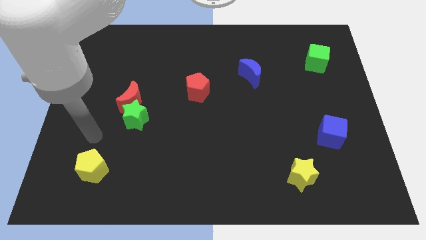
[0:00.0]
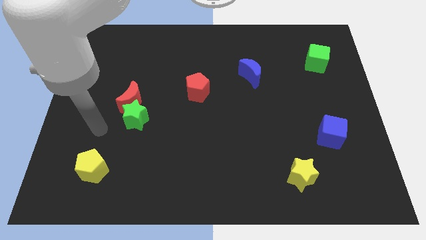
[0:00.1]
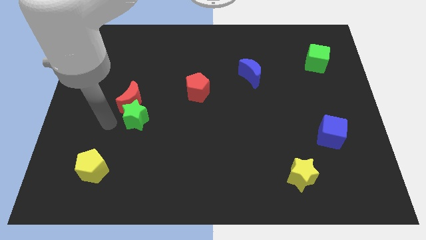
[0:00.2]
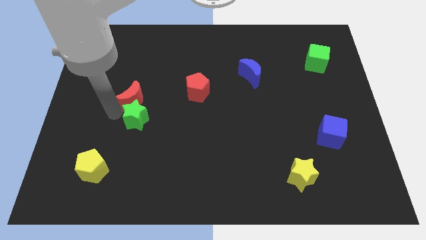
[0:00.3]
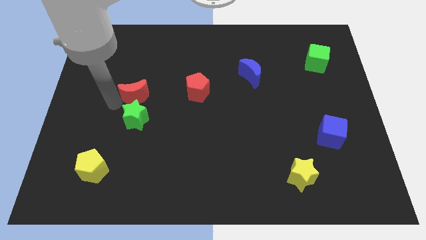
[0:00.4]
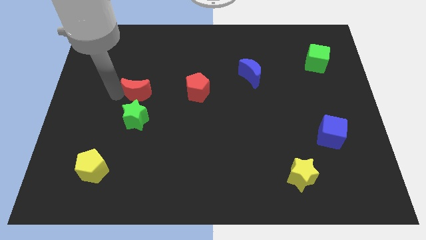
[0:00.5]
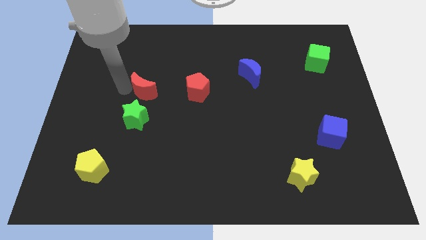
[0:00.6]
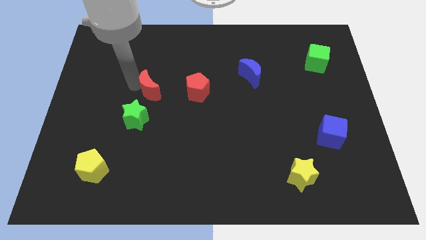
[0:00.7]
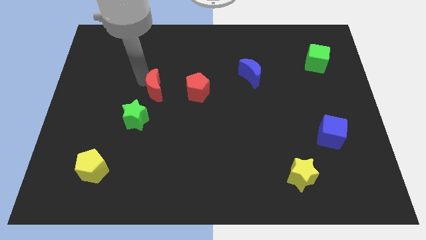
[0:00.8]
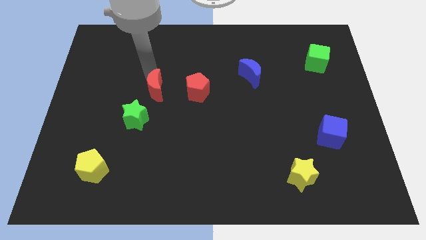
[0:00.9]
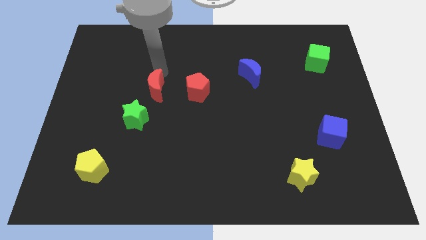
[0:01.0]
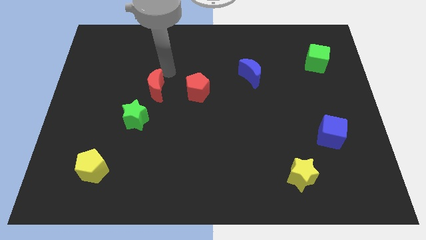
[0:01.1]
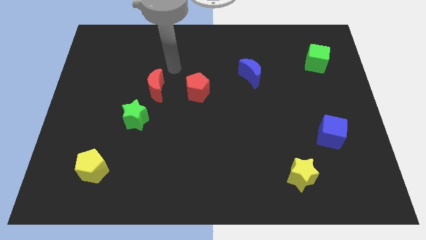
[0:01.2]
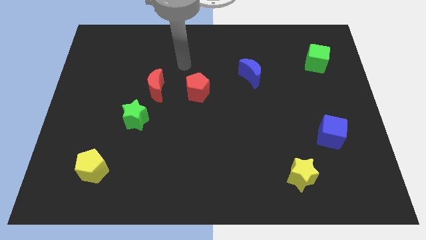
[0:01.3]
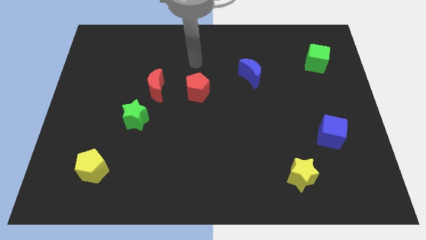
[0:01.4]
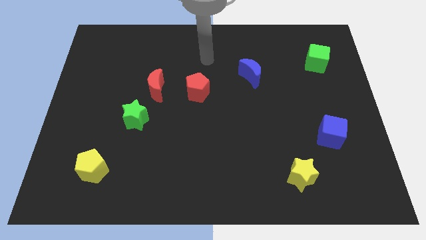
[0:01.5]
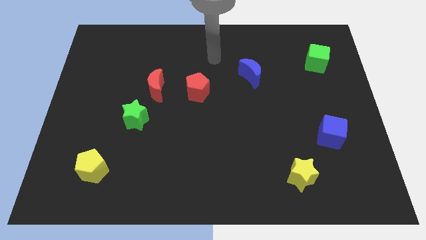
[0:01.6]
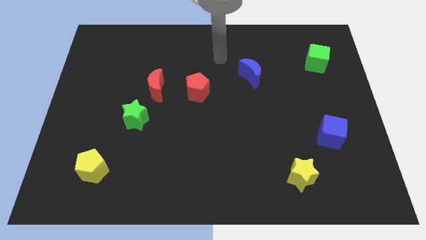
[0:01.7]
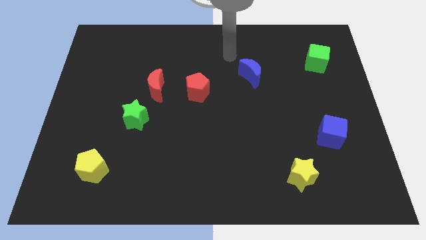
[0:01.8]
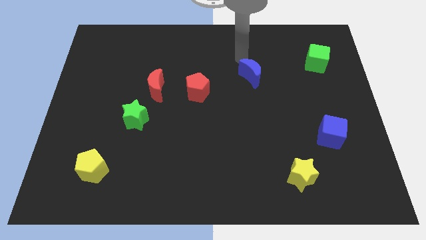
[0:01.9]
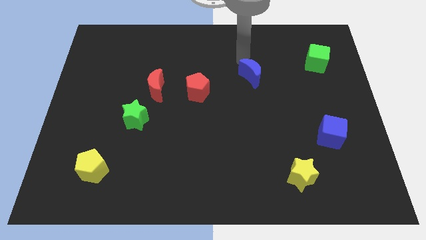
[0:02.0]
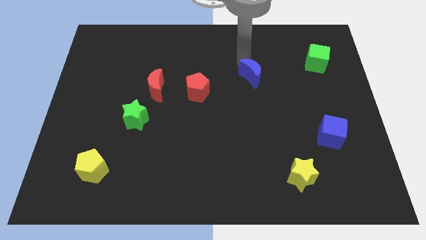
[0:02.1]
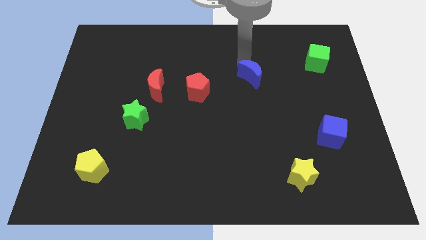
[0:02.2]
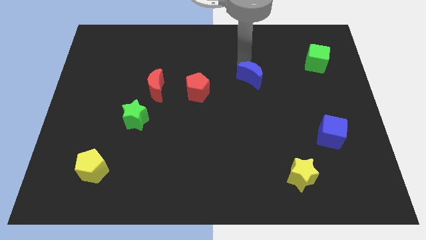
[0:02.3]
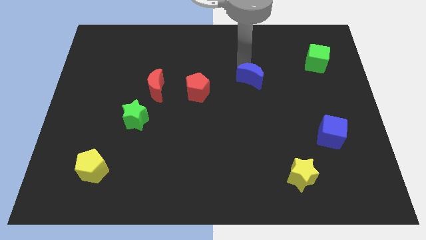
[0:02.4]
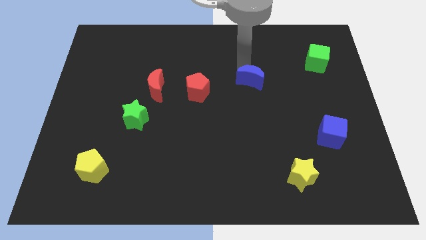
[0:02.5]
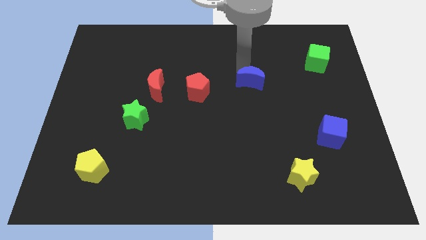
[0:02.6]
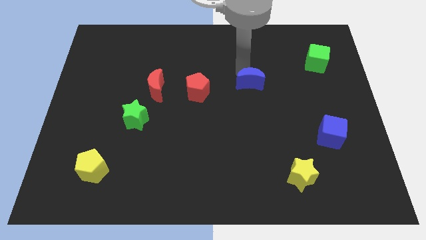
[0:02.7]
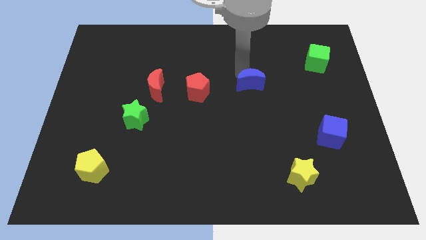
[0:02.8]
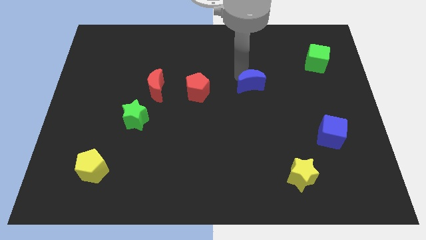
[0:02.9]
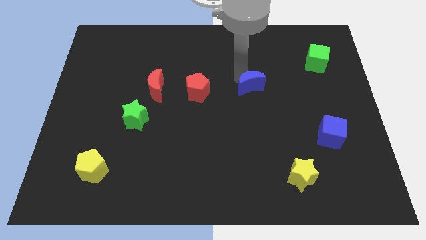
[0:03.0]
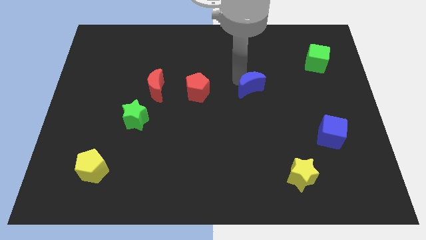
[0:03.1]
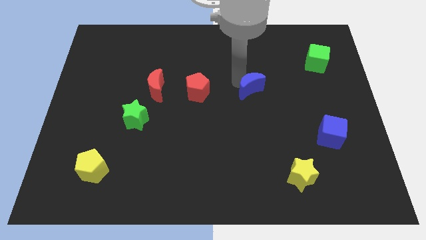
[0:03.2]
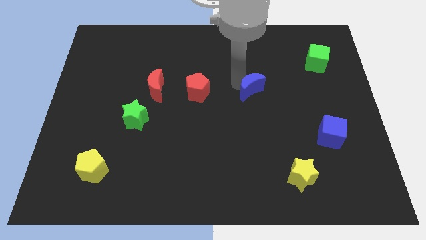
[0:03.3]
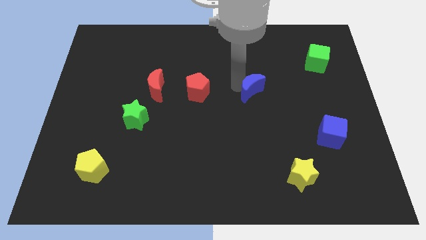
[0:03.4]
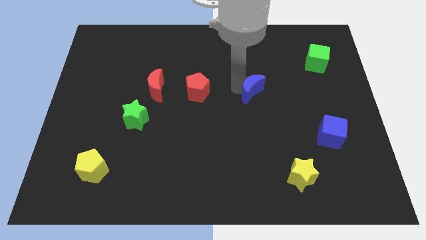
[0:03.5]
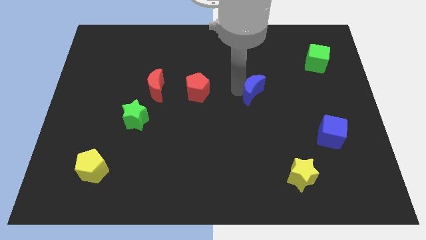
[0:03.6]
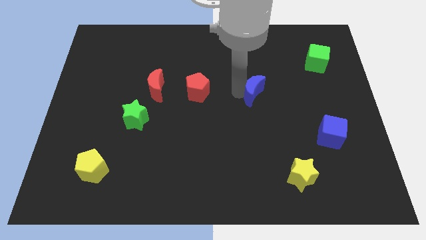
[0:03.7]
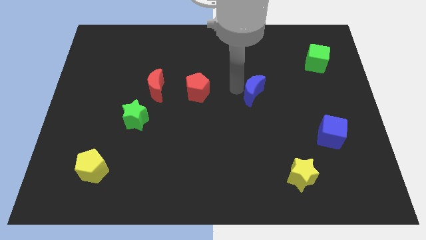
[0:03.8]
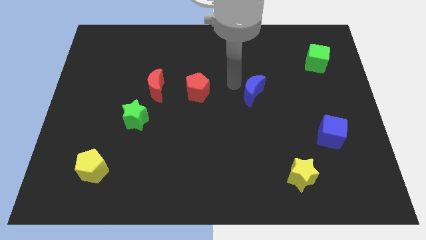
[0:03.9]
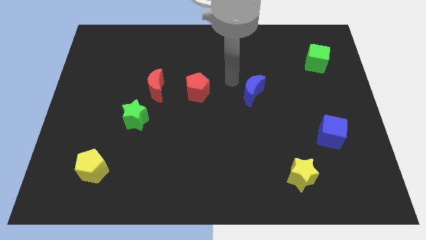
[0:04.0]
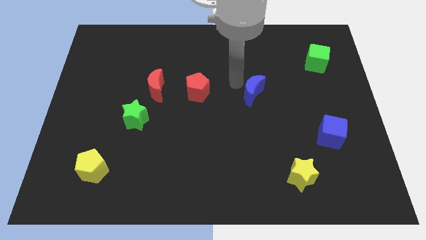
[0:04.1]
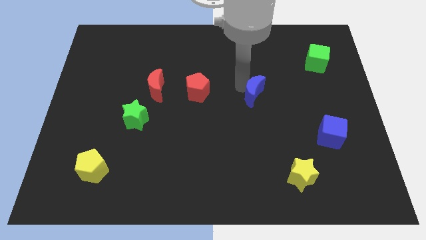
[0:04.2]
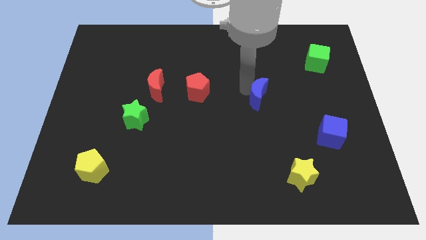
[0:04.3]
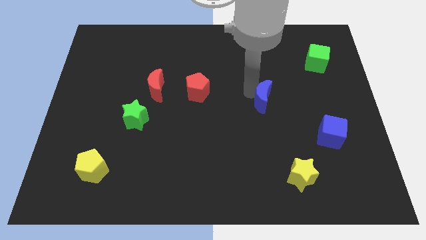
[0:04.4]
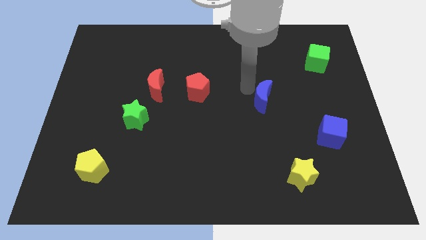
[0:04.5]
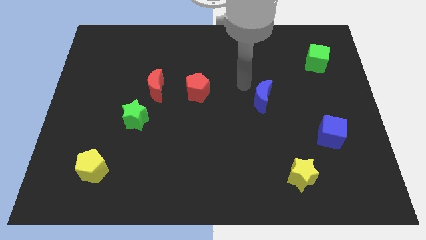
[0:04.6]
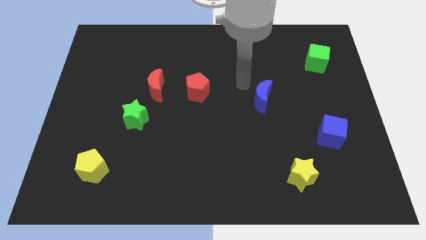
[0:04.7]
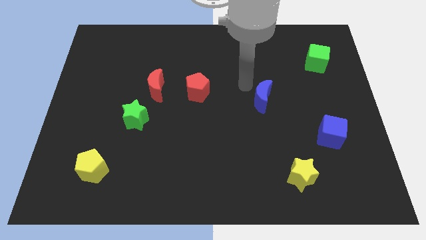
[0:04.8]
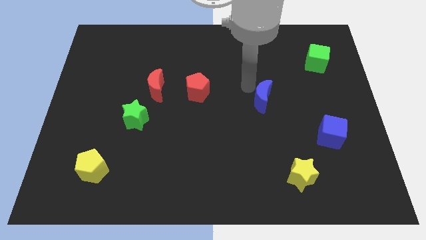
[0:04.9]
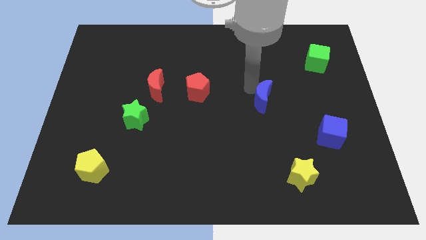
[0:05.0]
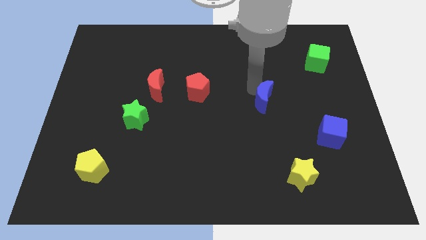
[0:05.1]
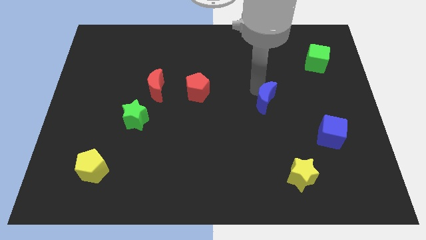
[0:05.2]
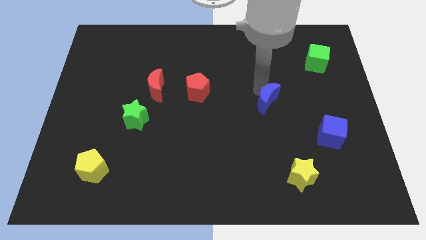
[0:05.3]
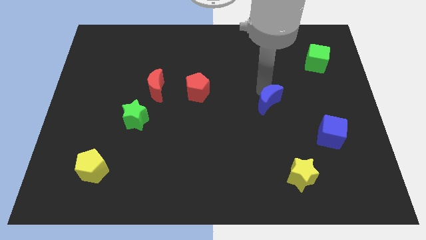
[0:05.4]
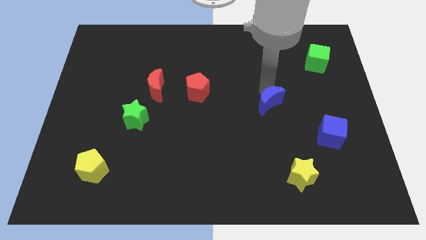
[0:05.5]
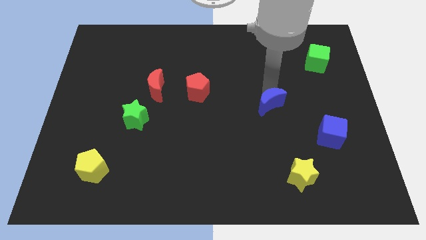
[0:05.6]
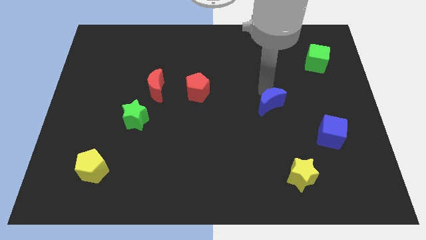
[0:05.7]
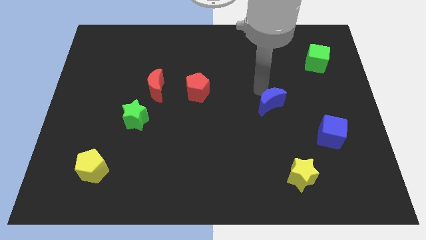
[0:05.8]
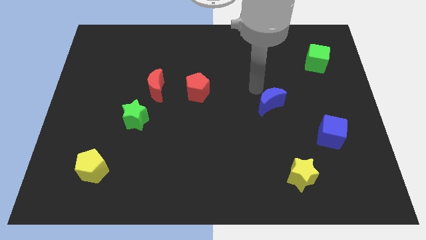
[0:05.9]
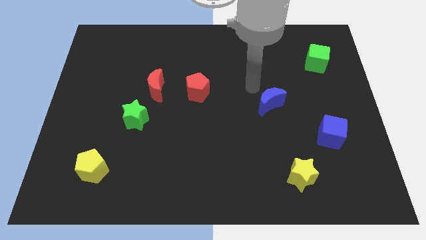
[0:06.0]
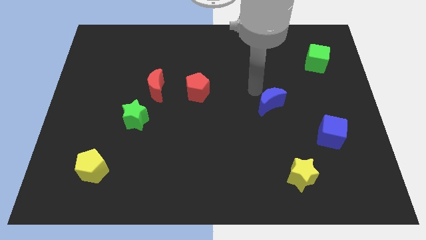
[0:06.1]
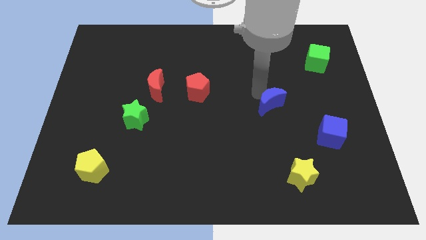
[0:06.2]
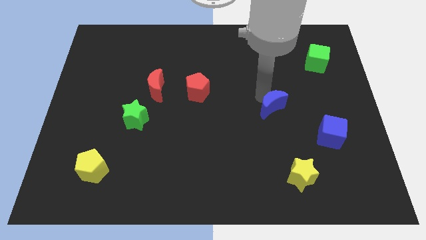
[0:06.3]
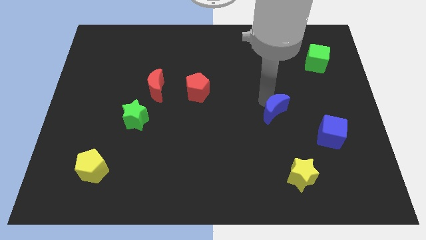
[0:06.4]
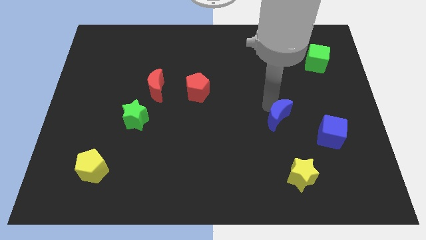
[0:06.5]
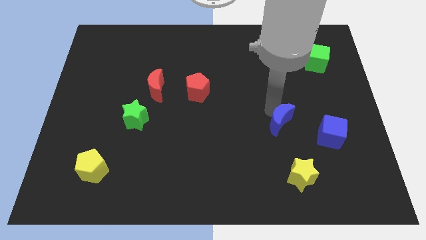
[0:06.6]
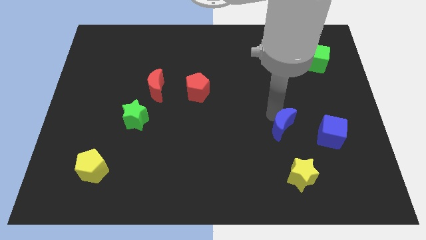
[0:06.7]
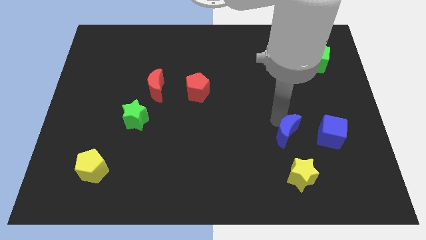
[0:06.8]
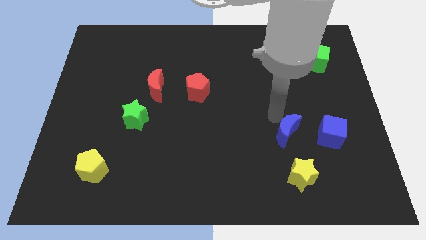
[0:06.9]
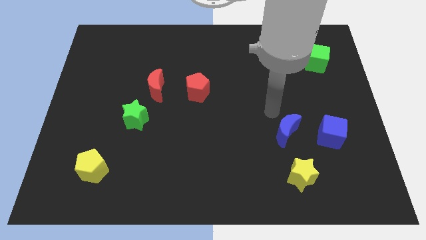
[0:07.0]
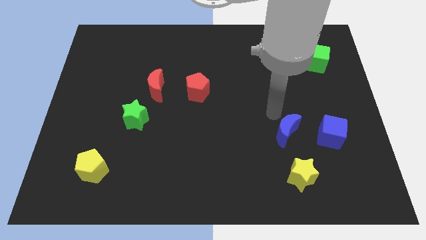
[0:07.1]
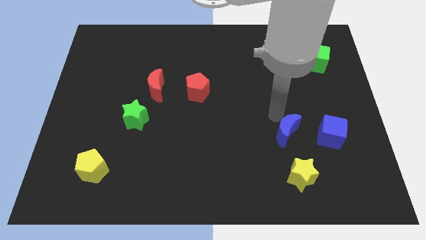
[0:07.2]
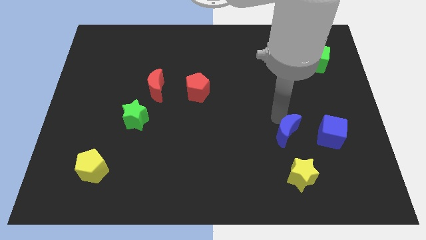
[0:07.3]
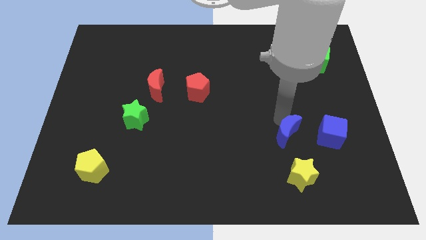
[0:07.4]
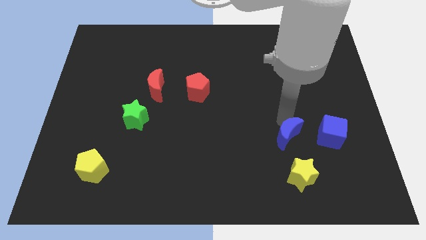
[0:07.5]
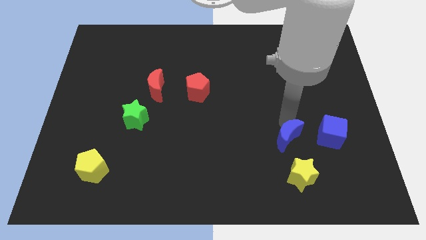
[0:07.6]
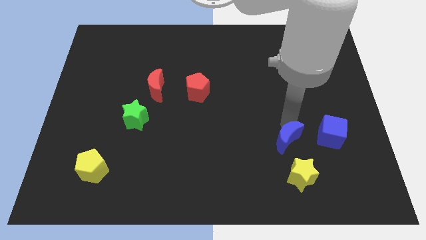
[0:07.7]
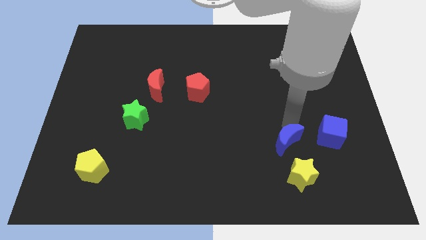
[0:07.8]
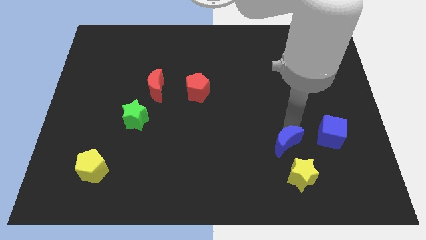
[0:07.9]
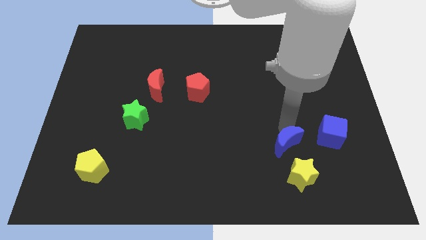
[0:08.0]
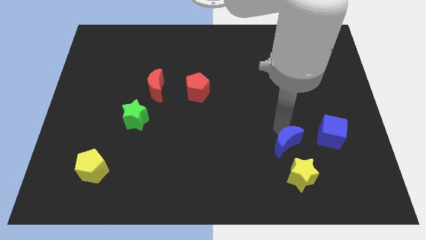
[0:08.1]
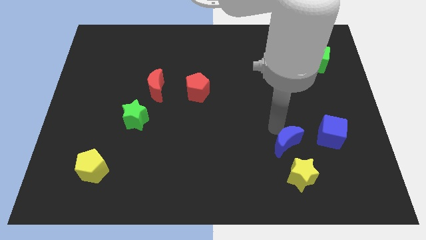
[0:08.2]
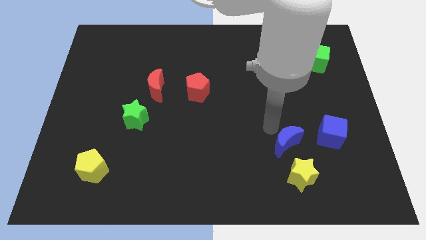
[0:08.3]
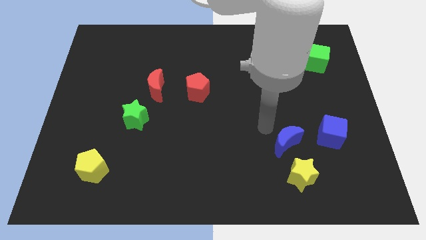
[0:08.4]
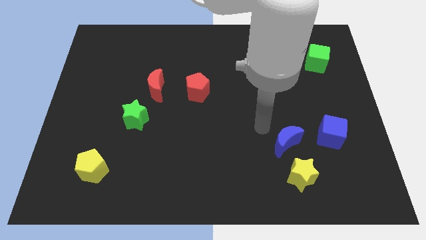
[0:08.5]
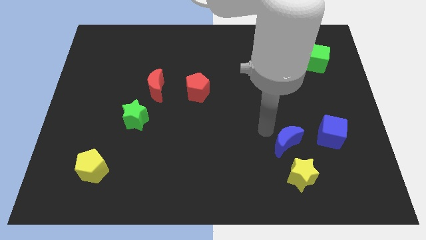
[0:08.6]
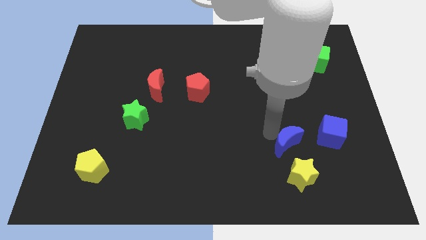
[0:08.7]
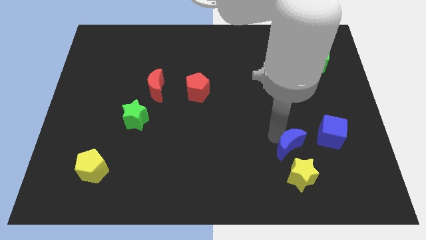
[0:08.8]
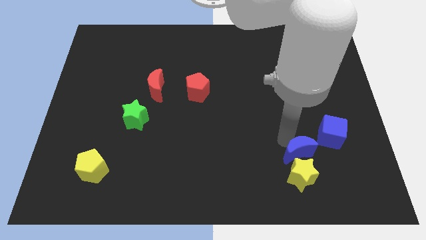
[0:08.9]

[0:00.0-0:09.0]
move the blue moon close to the yellow star
